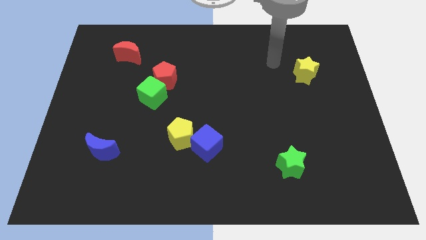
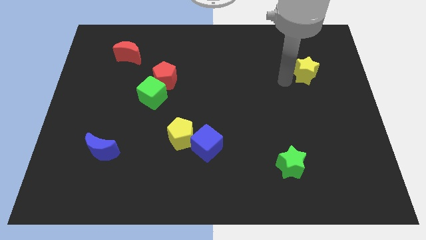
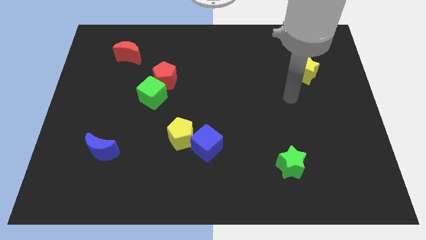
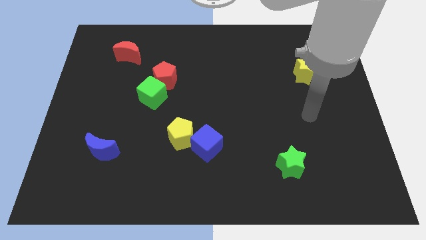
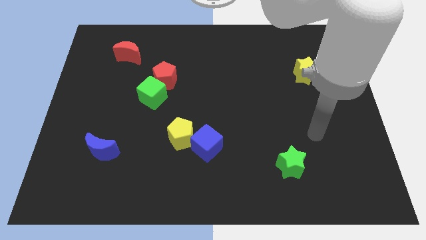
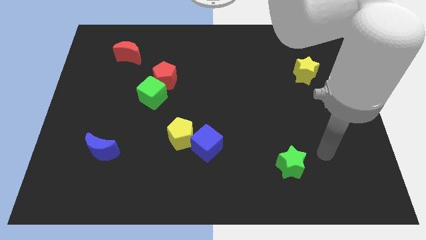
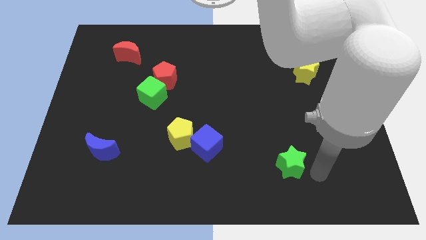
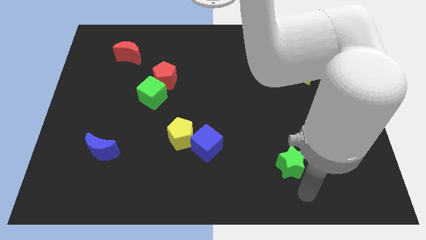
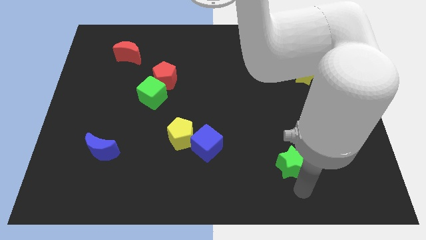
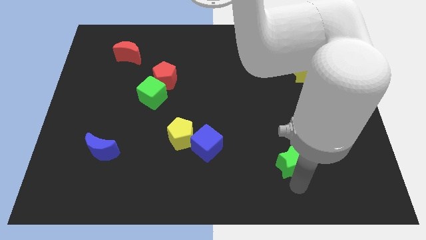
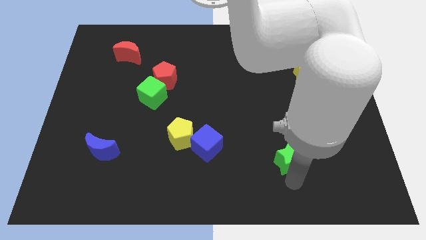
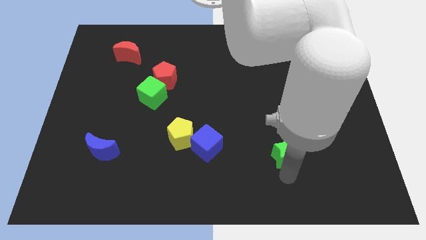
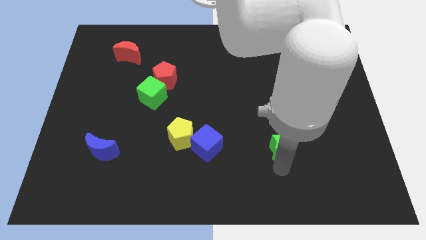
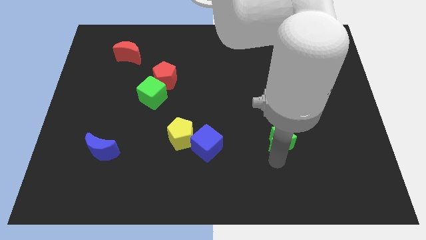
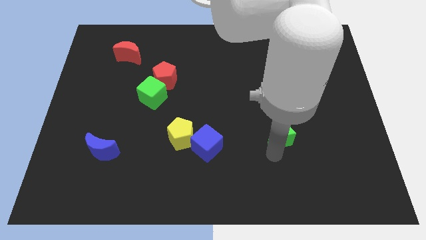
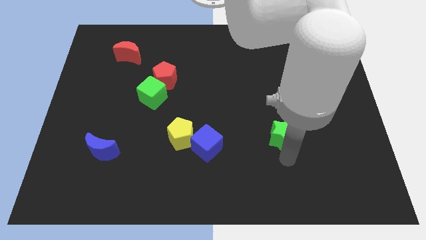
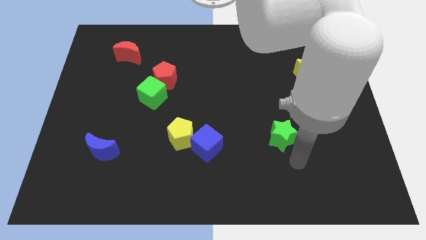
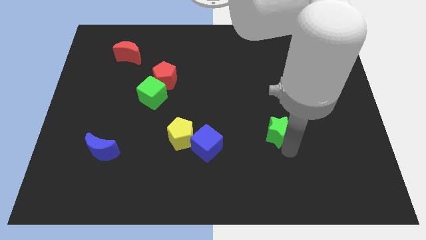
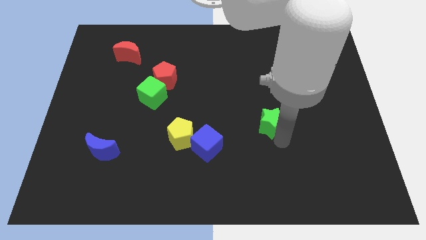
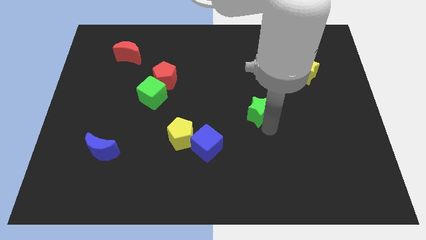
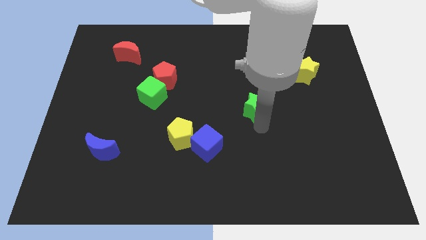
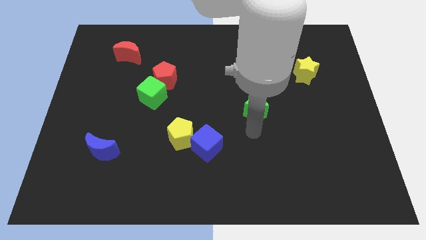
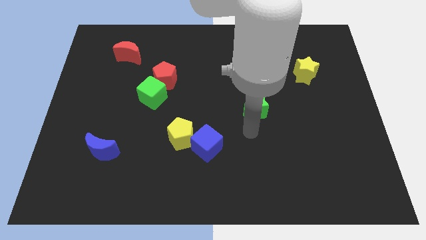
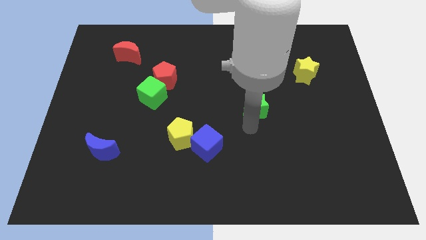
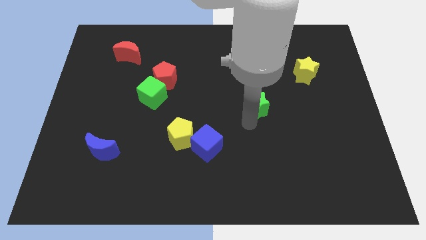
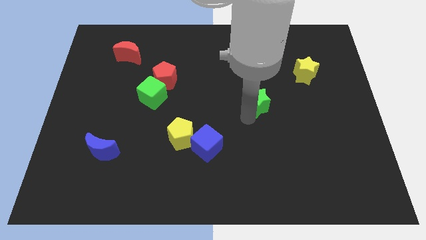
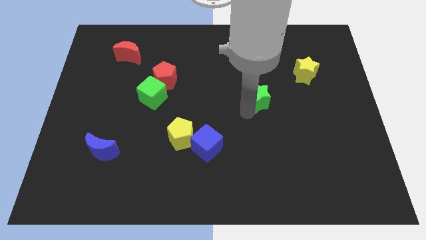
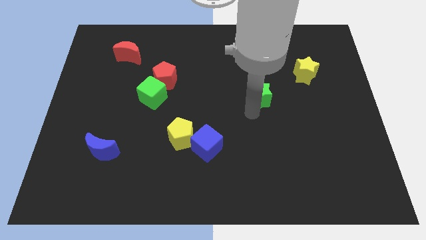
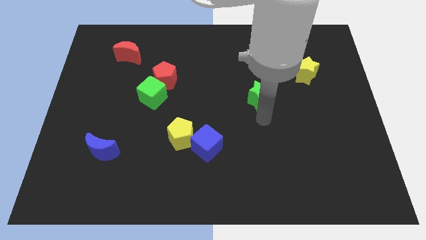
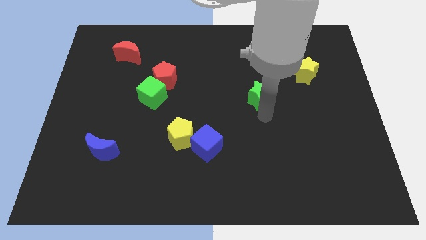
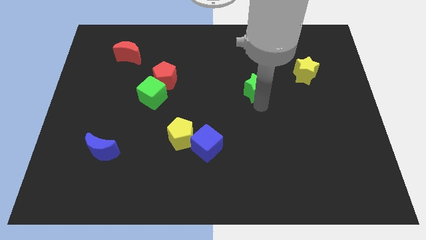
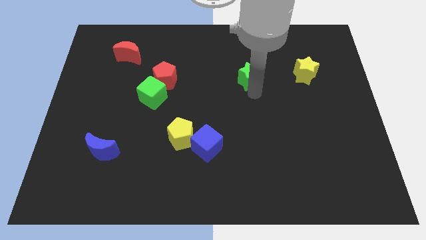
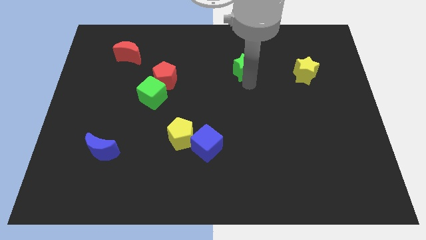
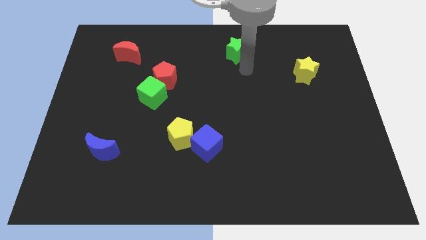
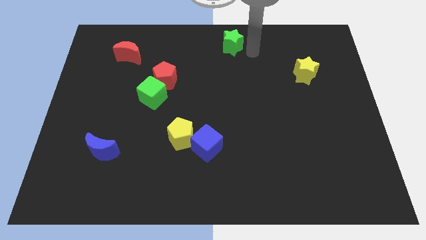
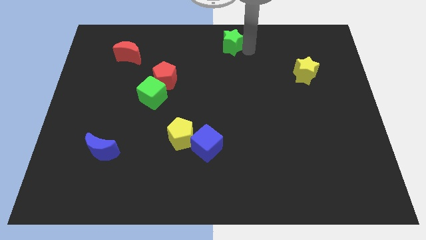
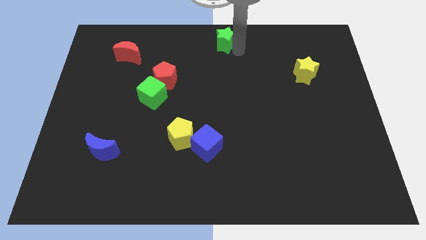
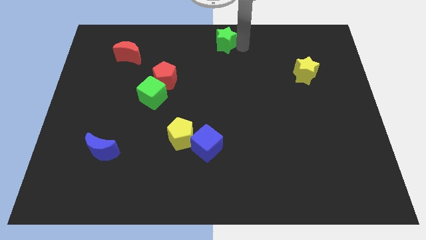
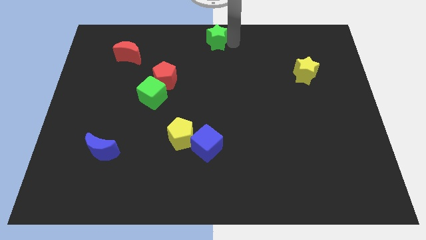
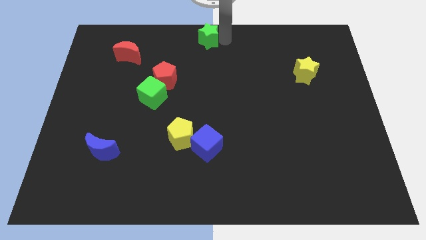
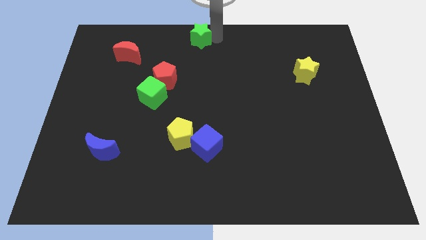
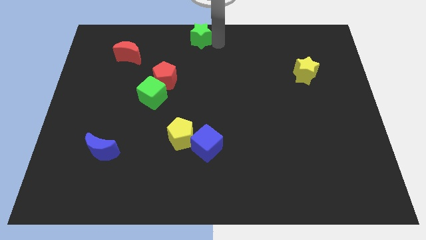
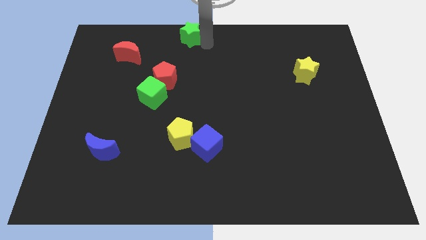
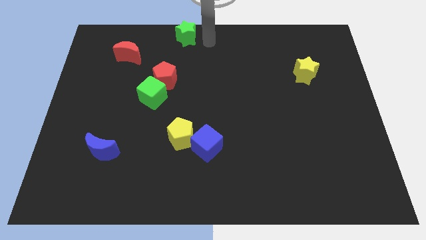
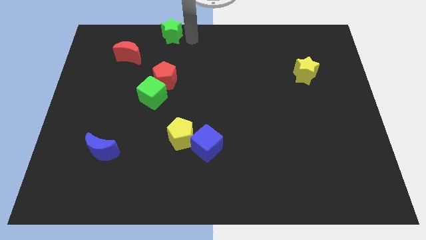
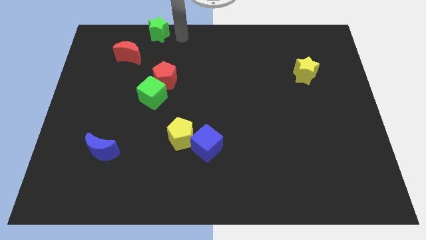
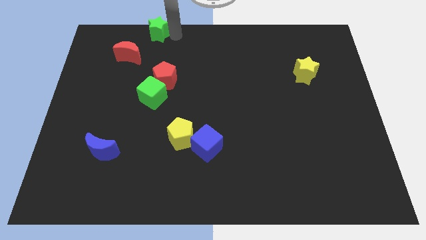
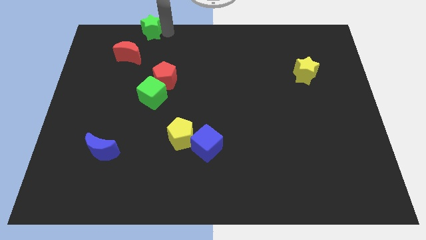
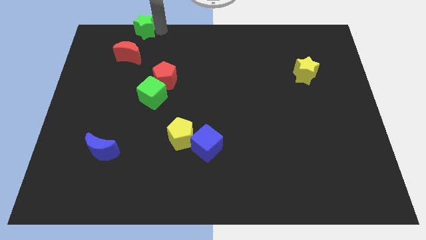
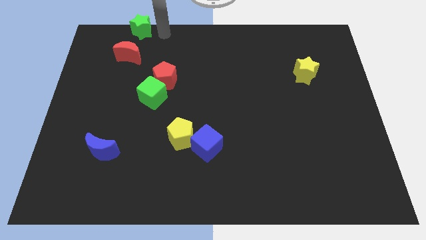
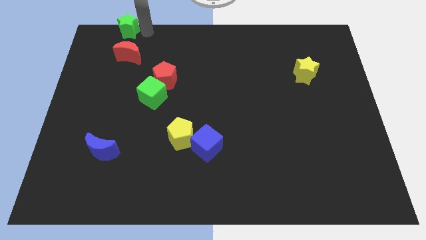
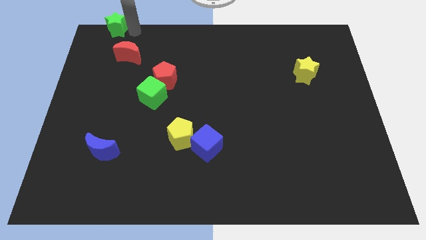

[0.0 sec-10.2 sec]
push the green star to the top left corner
